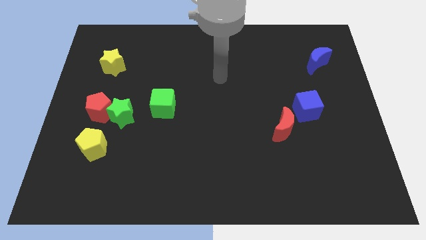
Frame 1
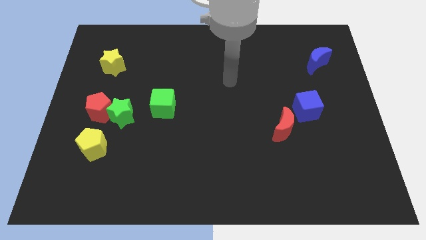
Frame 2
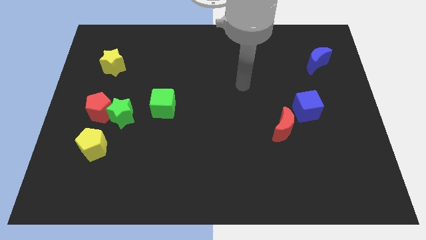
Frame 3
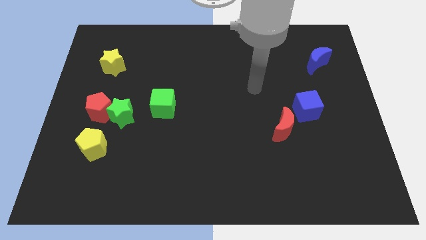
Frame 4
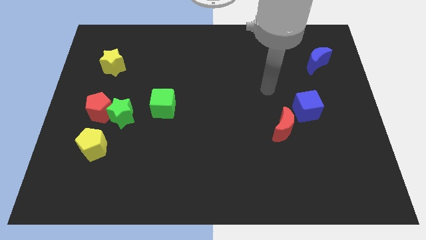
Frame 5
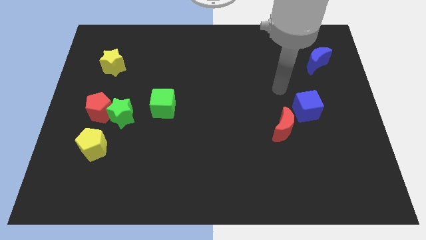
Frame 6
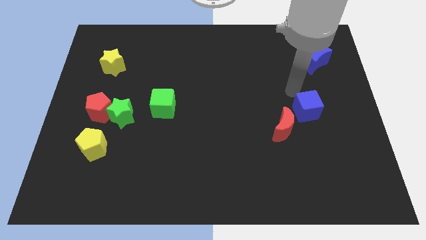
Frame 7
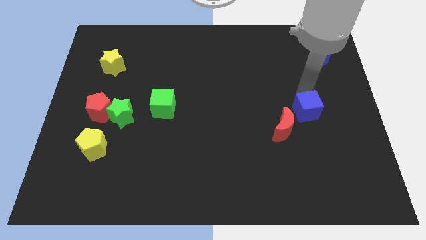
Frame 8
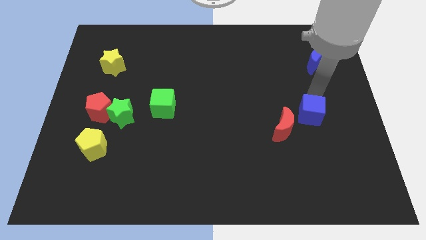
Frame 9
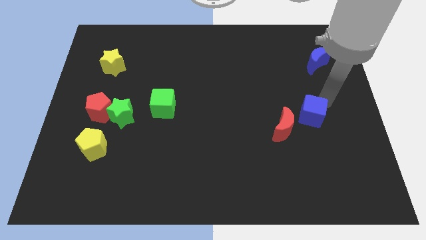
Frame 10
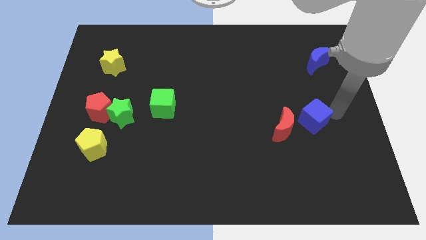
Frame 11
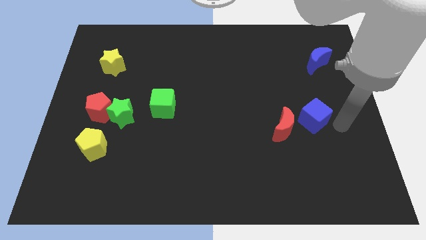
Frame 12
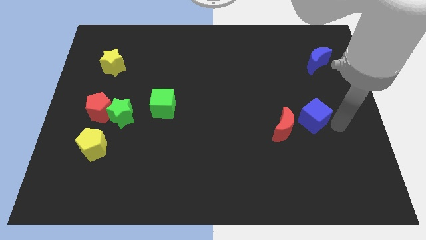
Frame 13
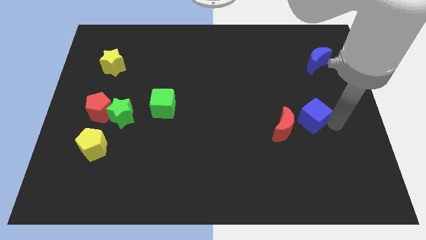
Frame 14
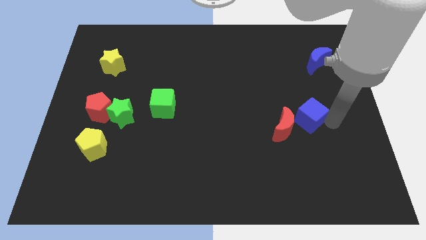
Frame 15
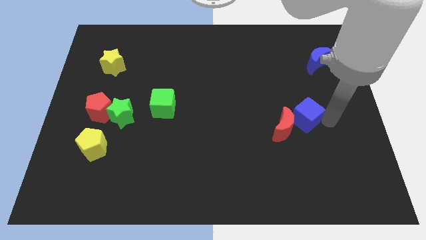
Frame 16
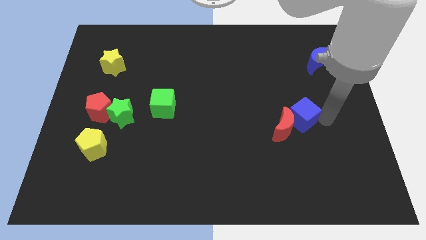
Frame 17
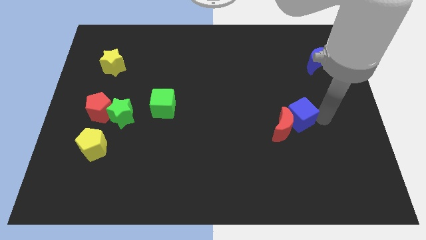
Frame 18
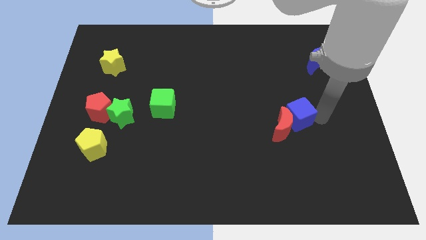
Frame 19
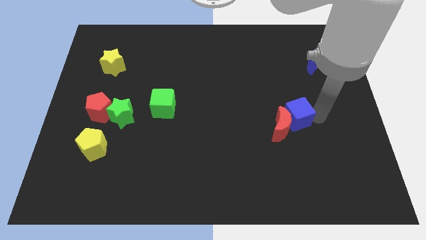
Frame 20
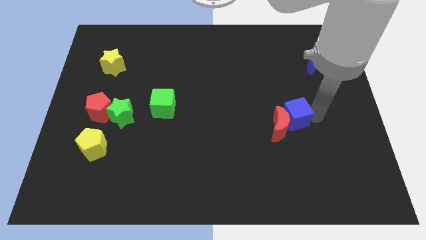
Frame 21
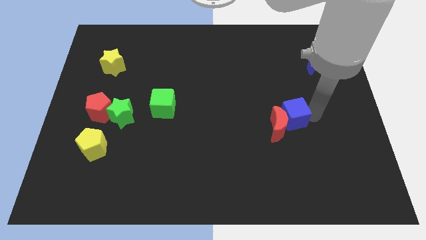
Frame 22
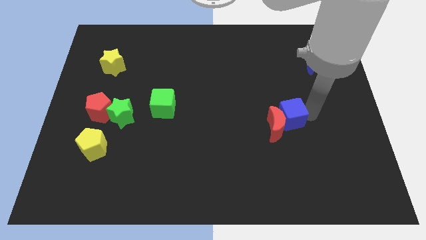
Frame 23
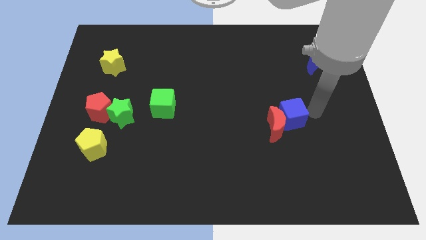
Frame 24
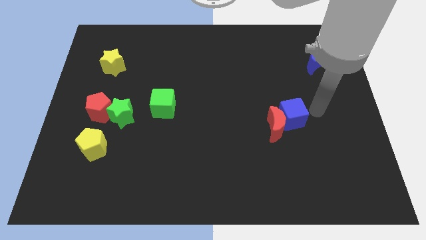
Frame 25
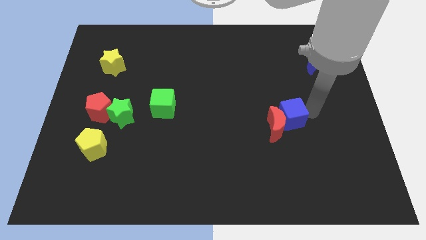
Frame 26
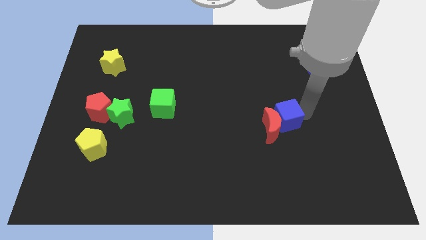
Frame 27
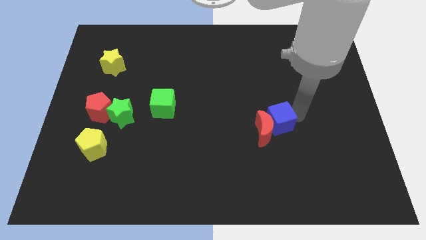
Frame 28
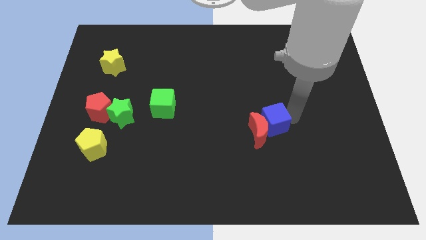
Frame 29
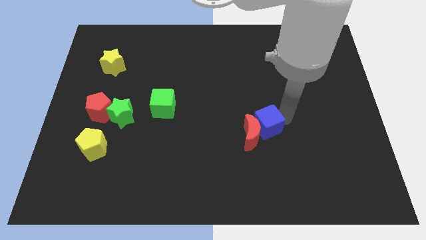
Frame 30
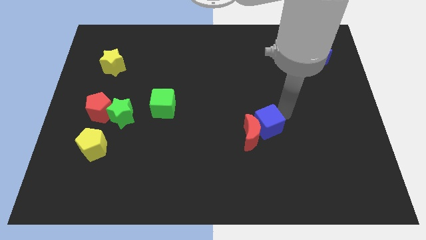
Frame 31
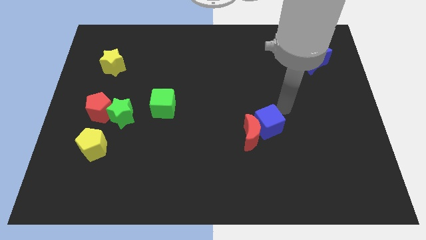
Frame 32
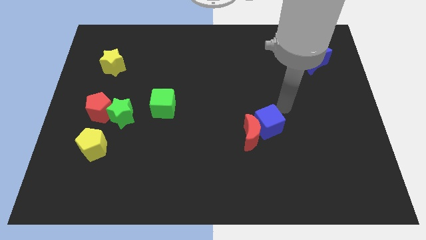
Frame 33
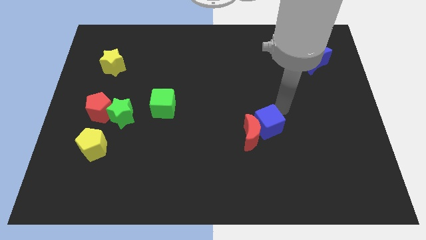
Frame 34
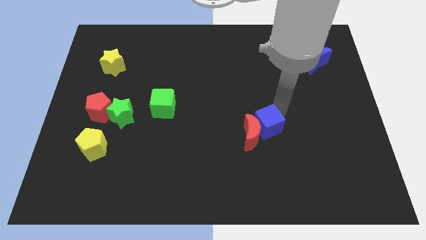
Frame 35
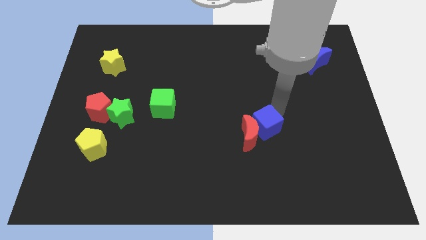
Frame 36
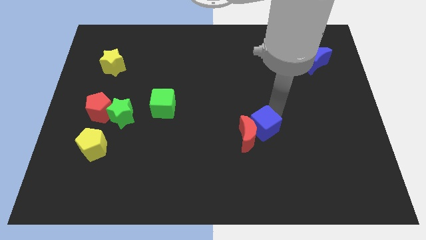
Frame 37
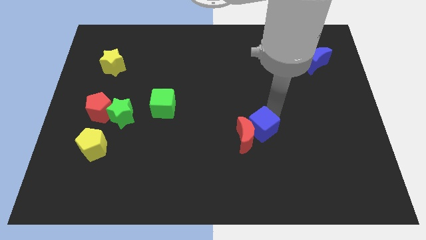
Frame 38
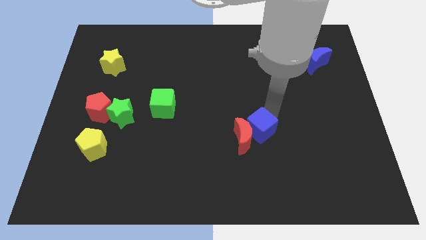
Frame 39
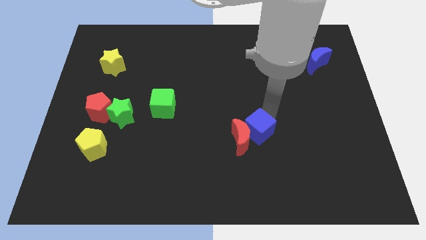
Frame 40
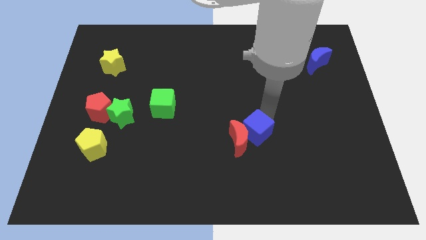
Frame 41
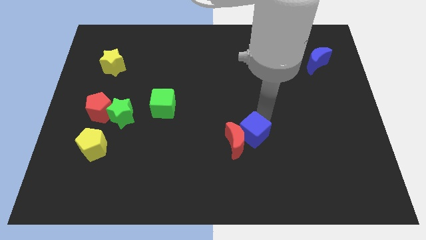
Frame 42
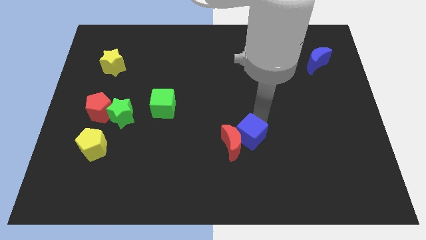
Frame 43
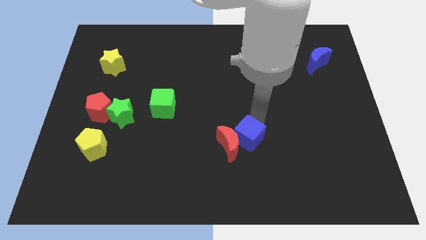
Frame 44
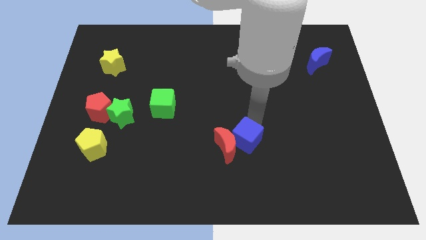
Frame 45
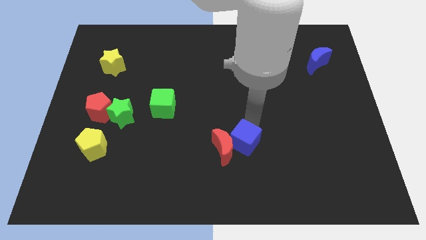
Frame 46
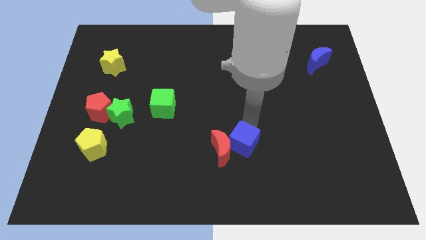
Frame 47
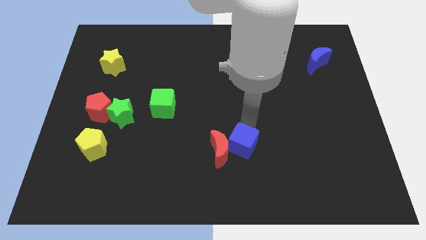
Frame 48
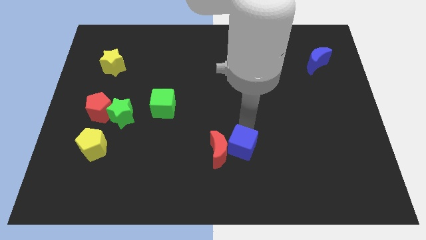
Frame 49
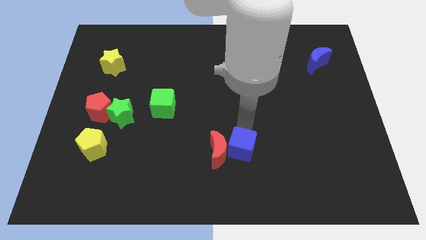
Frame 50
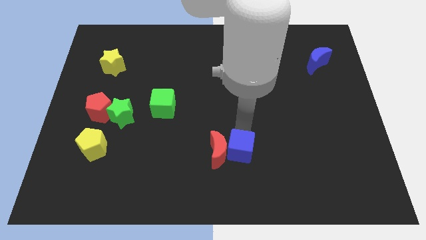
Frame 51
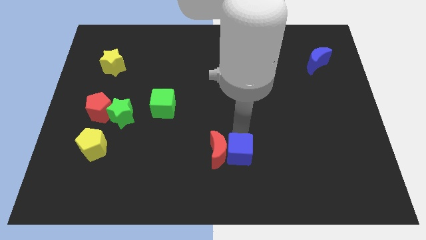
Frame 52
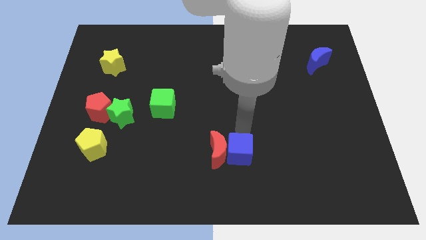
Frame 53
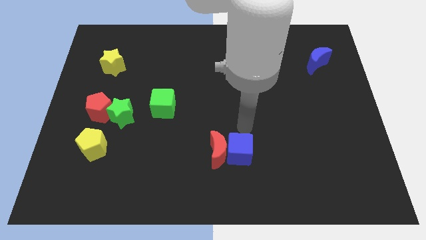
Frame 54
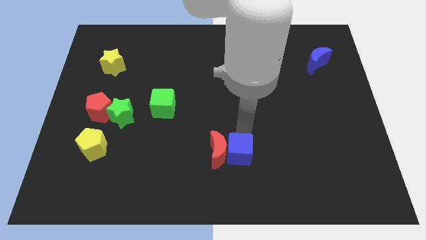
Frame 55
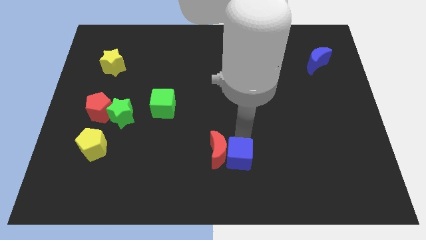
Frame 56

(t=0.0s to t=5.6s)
slide the blue cube to the bottom
